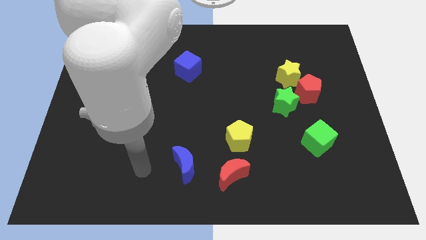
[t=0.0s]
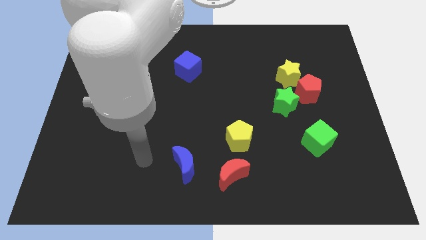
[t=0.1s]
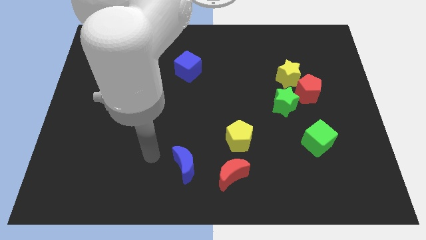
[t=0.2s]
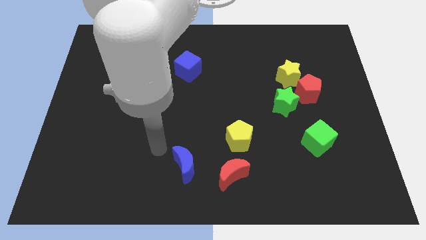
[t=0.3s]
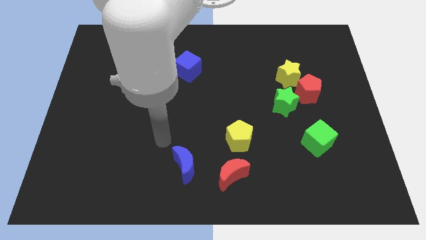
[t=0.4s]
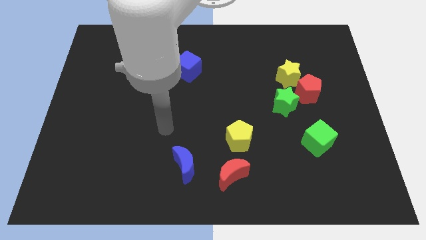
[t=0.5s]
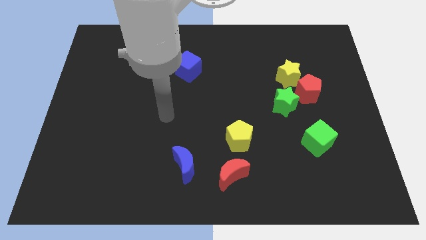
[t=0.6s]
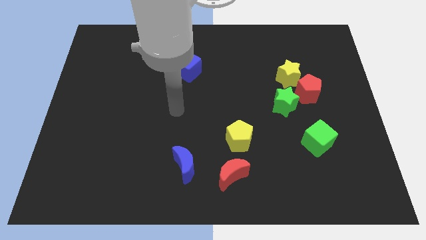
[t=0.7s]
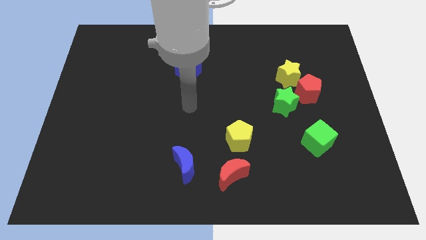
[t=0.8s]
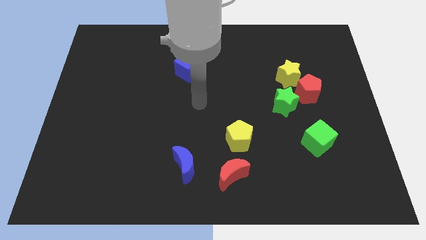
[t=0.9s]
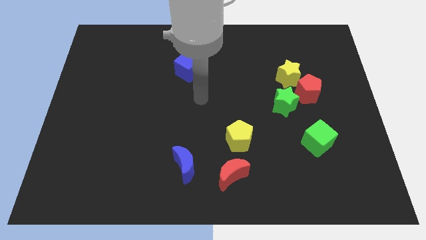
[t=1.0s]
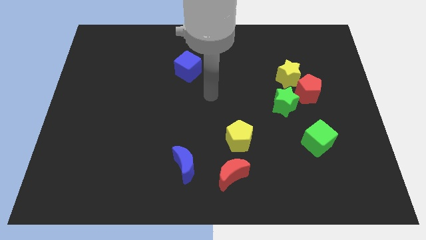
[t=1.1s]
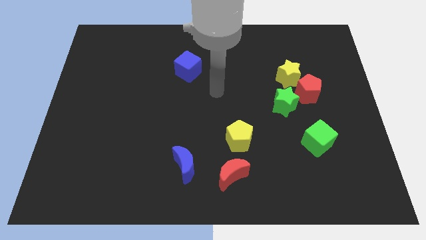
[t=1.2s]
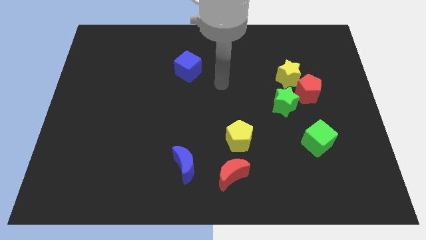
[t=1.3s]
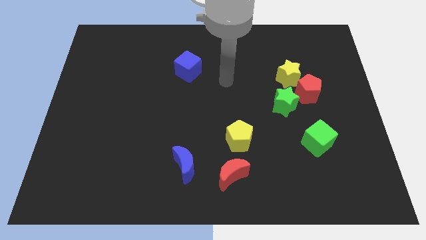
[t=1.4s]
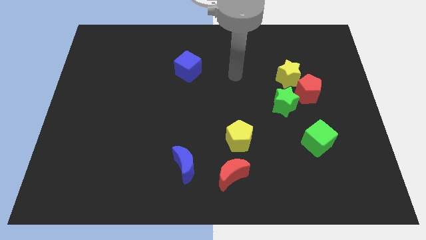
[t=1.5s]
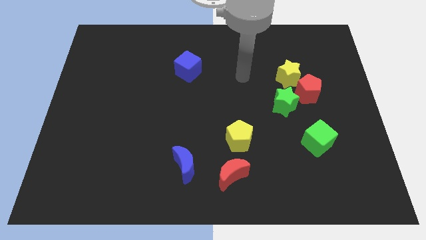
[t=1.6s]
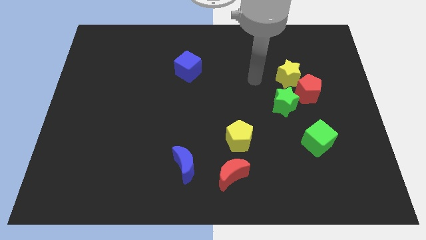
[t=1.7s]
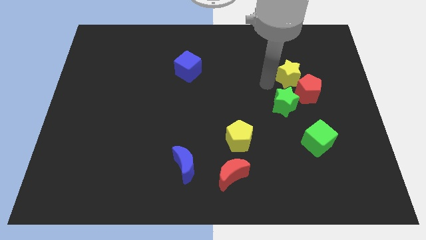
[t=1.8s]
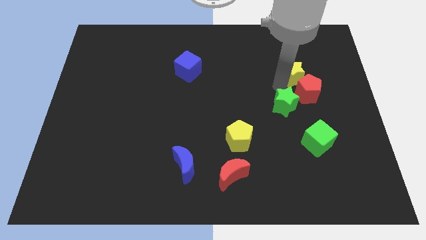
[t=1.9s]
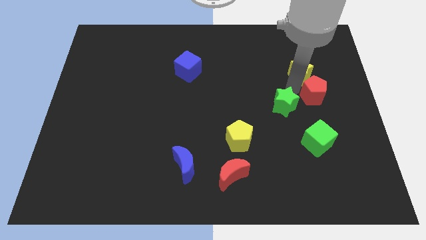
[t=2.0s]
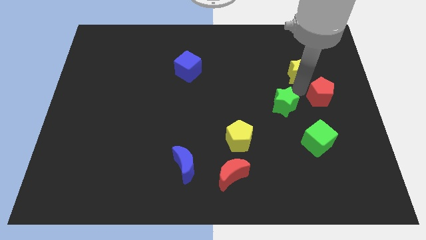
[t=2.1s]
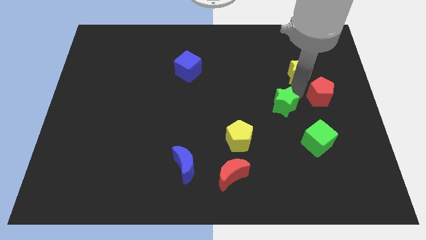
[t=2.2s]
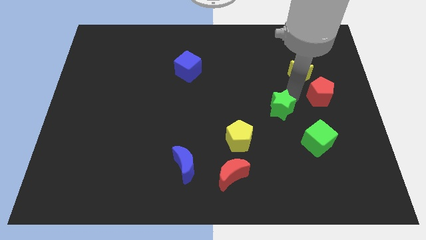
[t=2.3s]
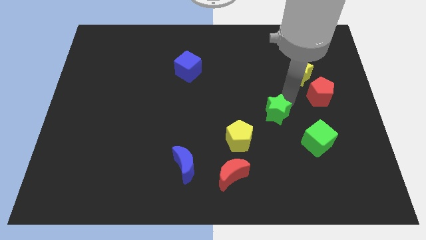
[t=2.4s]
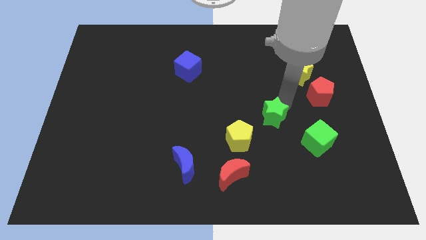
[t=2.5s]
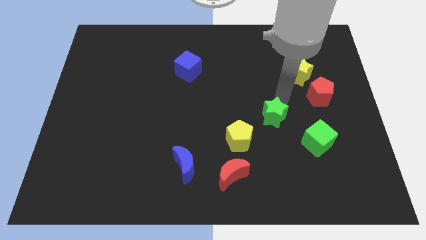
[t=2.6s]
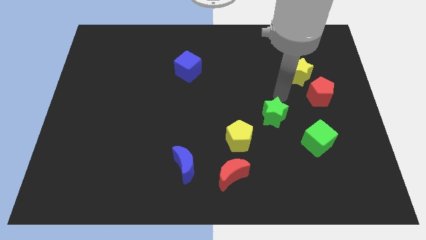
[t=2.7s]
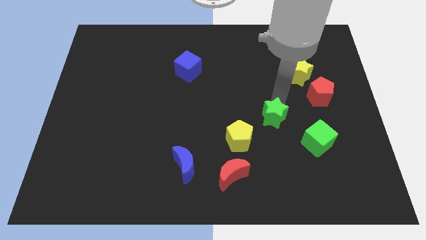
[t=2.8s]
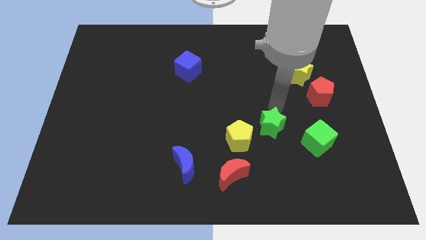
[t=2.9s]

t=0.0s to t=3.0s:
push the green star a bit downwards and to the left

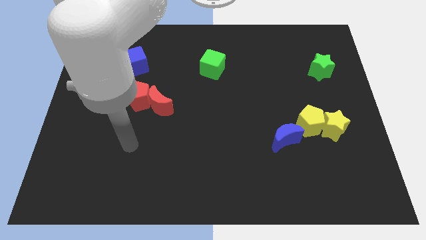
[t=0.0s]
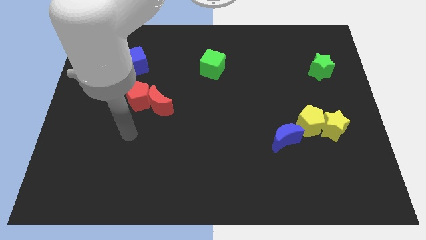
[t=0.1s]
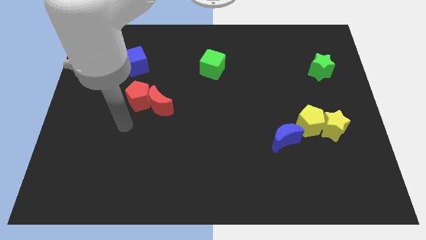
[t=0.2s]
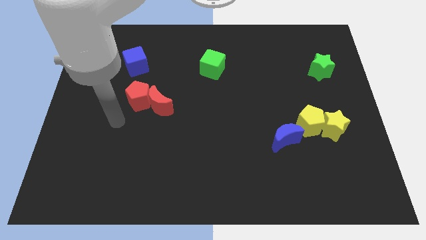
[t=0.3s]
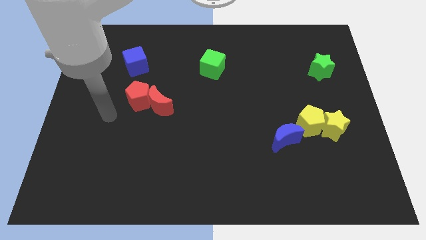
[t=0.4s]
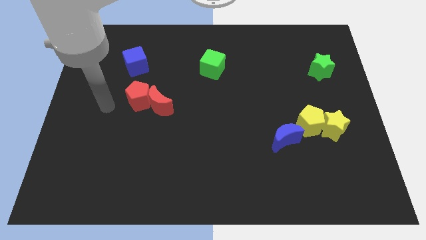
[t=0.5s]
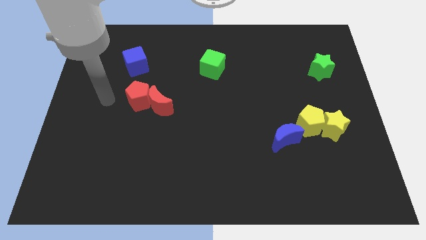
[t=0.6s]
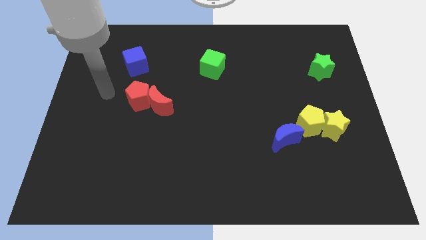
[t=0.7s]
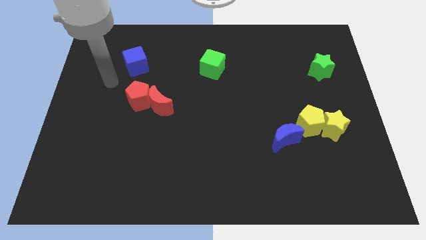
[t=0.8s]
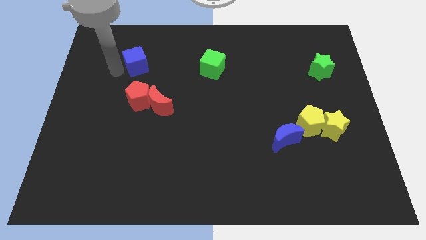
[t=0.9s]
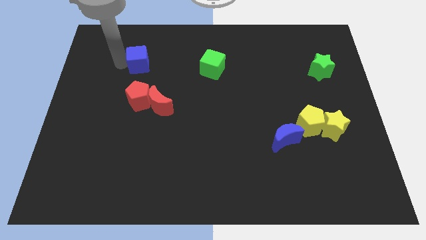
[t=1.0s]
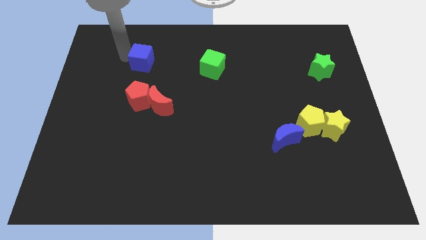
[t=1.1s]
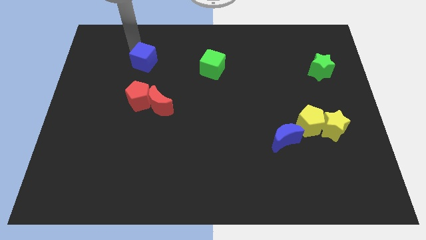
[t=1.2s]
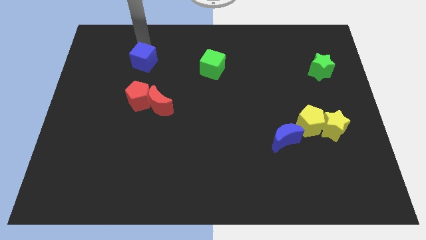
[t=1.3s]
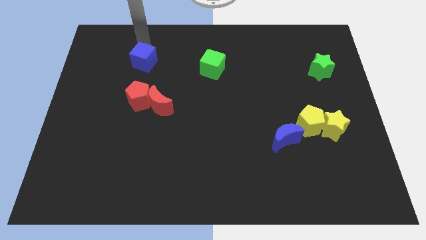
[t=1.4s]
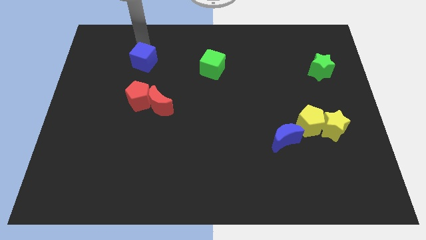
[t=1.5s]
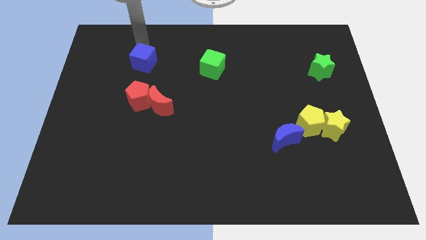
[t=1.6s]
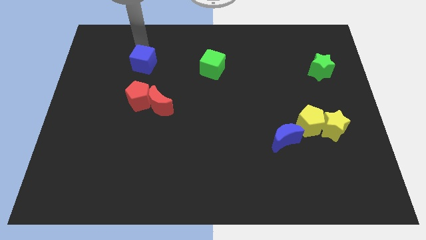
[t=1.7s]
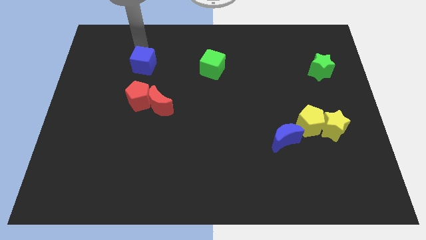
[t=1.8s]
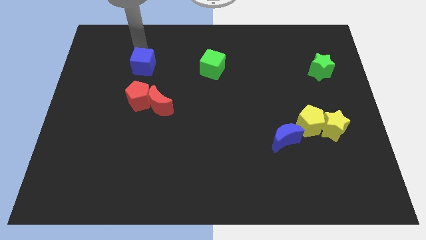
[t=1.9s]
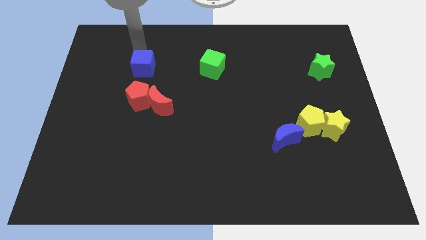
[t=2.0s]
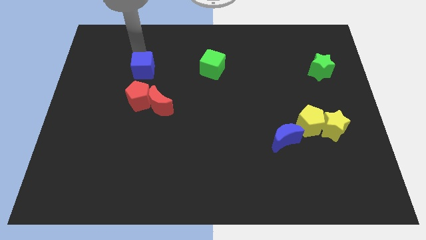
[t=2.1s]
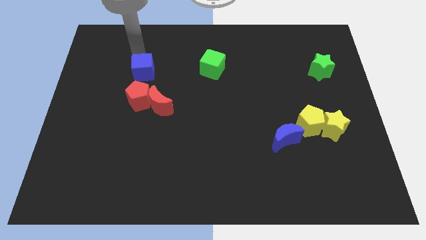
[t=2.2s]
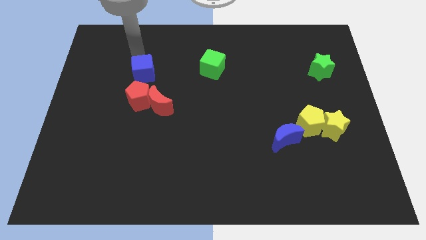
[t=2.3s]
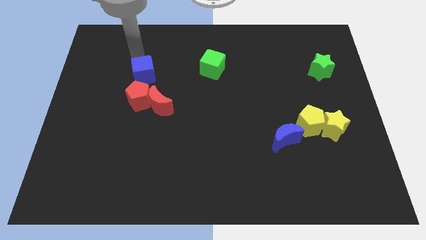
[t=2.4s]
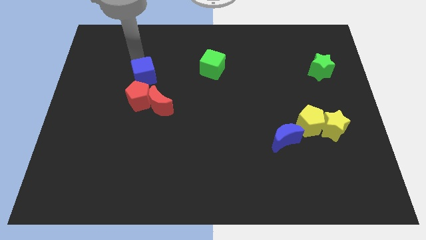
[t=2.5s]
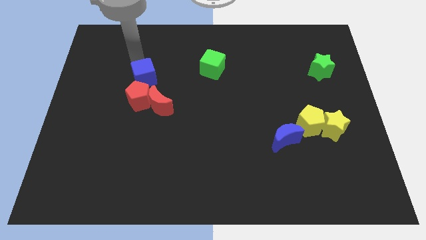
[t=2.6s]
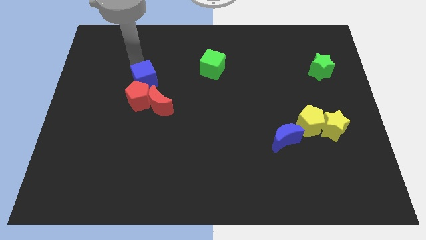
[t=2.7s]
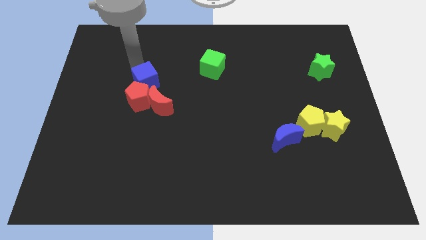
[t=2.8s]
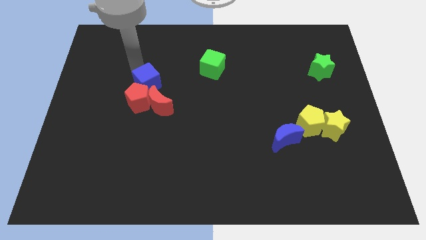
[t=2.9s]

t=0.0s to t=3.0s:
slightly move the blue cube diagonally downwards and right

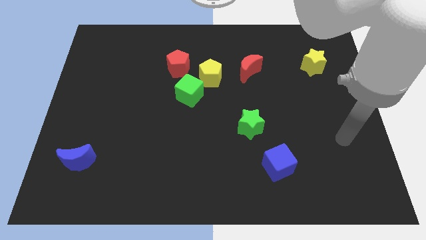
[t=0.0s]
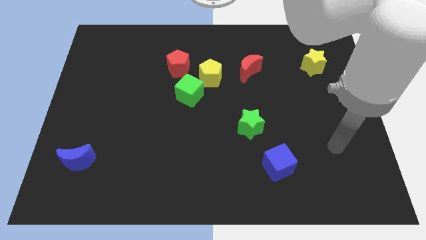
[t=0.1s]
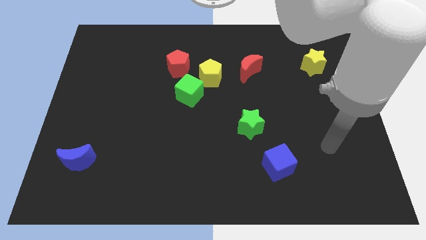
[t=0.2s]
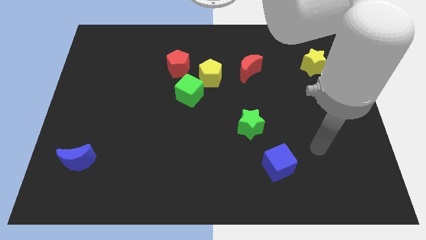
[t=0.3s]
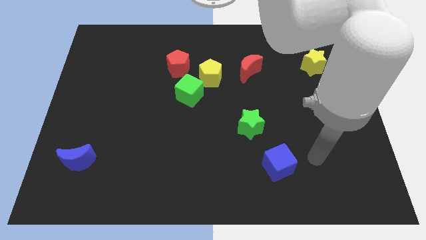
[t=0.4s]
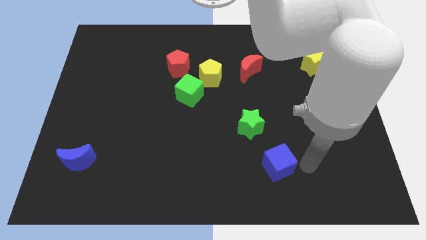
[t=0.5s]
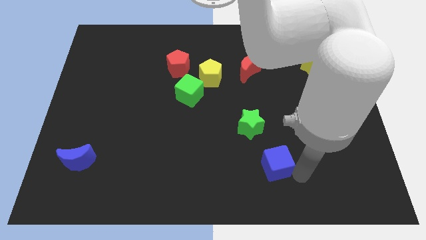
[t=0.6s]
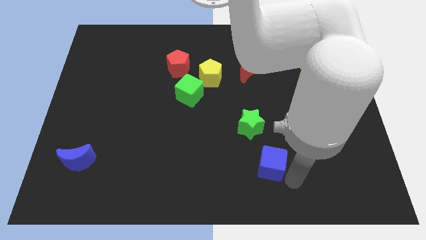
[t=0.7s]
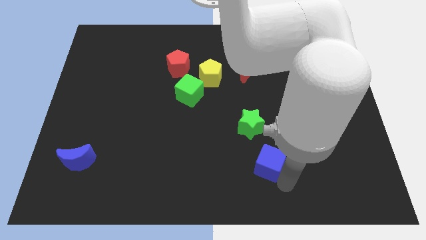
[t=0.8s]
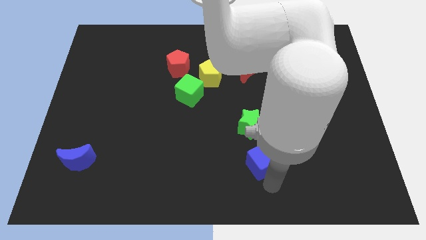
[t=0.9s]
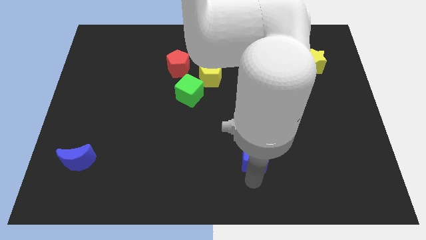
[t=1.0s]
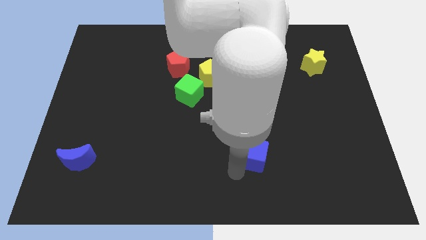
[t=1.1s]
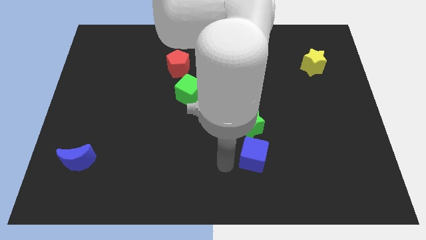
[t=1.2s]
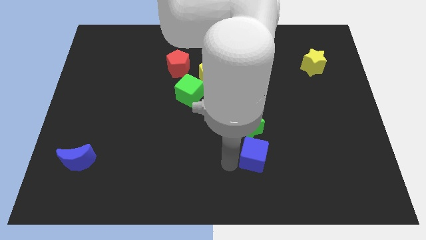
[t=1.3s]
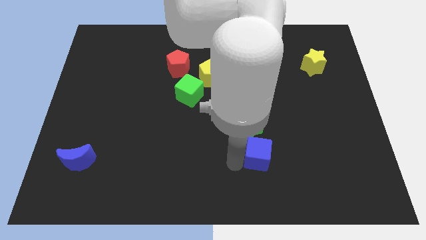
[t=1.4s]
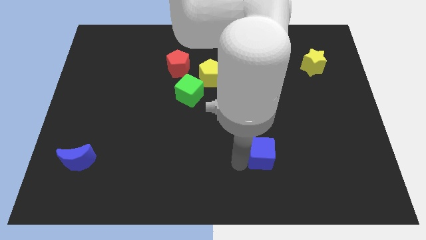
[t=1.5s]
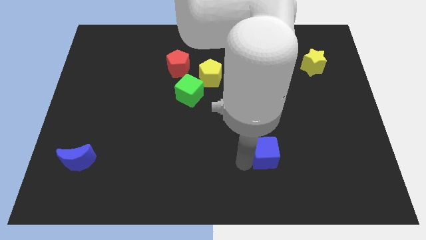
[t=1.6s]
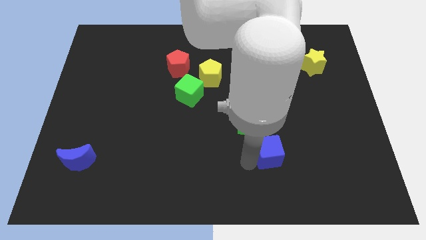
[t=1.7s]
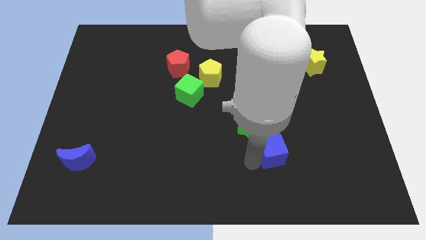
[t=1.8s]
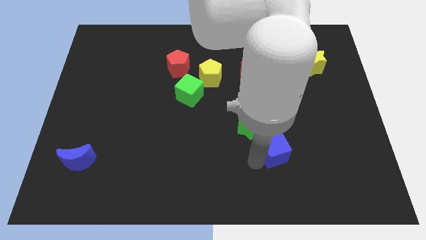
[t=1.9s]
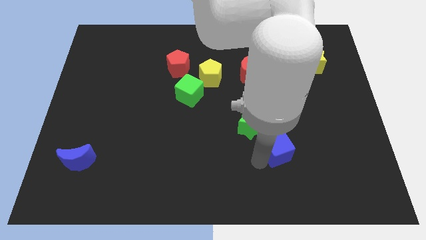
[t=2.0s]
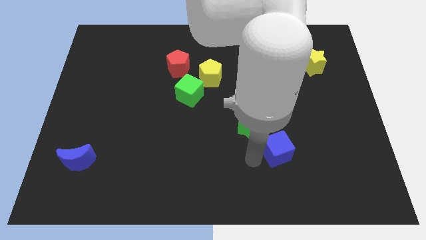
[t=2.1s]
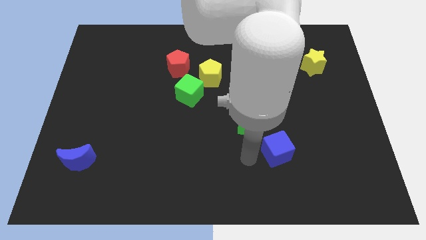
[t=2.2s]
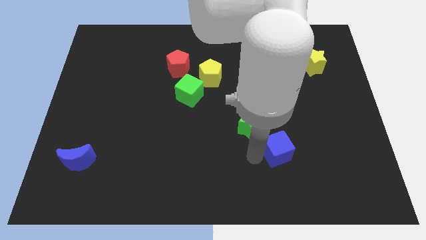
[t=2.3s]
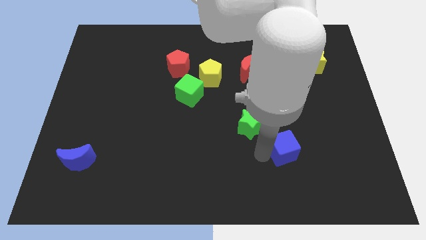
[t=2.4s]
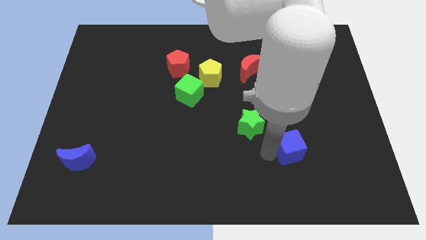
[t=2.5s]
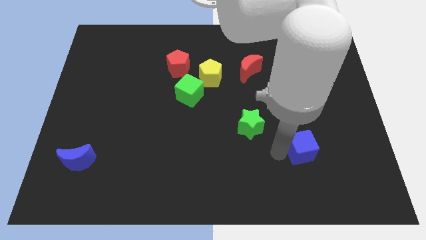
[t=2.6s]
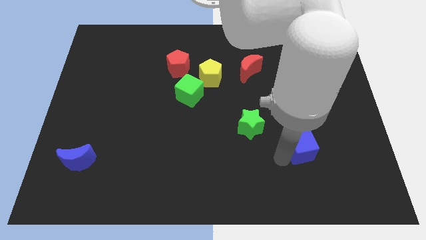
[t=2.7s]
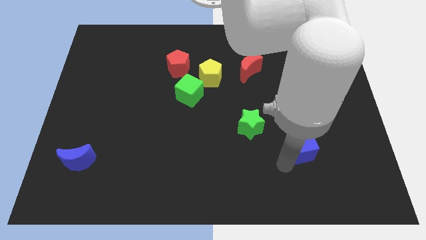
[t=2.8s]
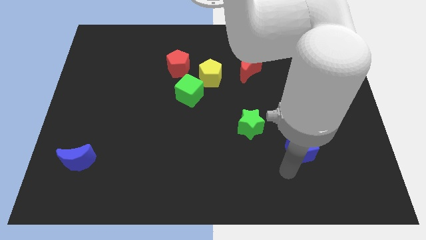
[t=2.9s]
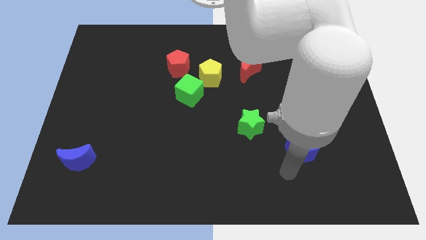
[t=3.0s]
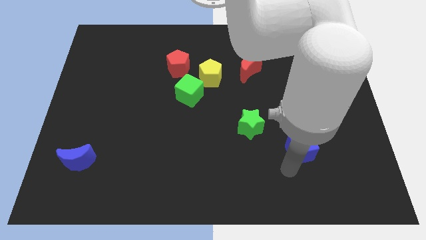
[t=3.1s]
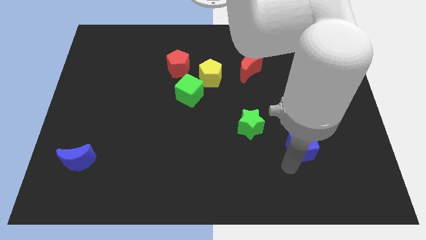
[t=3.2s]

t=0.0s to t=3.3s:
move the blue cube upwards and right a little
